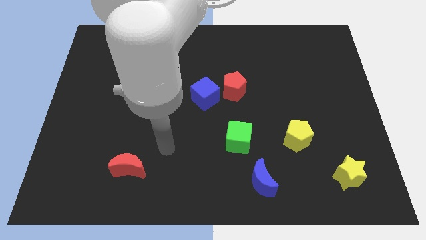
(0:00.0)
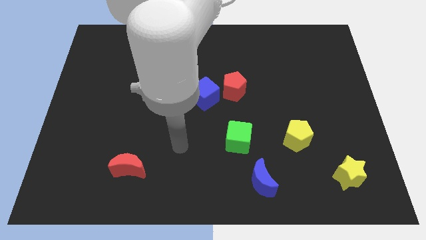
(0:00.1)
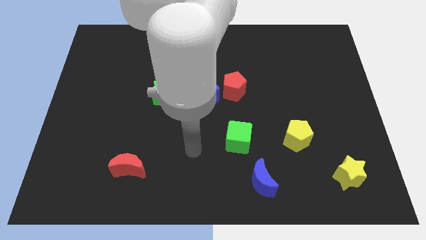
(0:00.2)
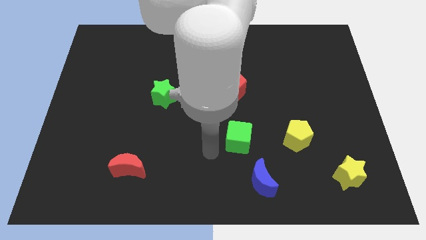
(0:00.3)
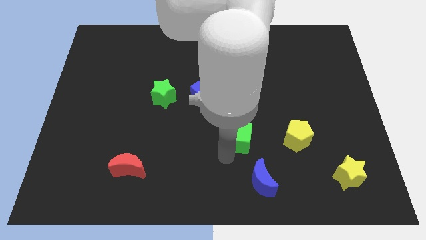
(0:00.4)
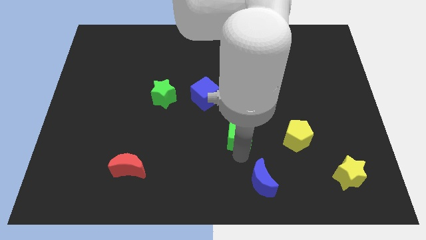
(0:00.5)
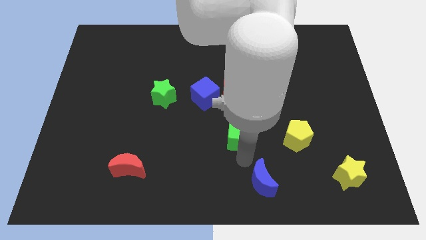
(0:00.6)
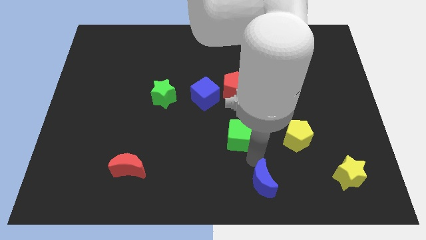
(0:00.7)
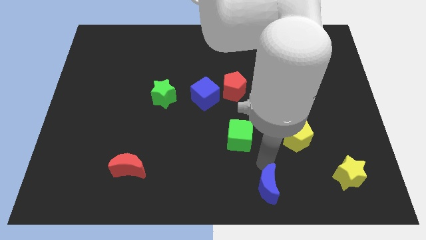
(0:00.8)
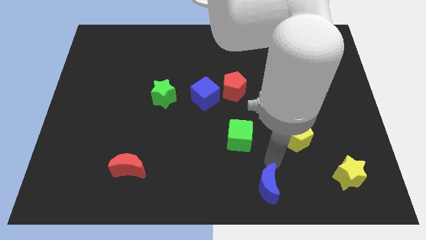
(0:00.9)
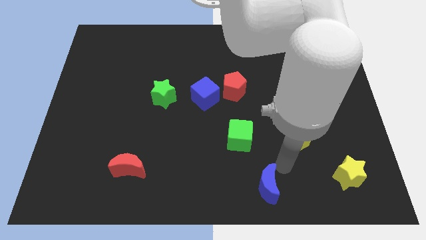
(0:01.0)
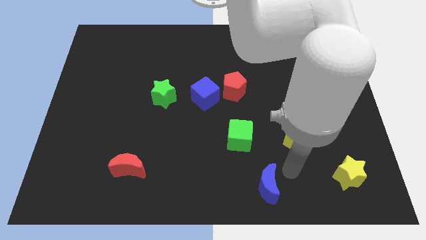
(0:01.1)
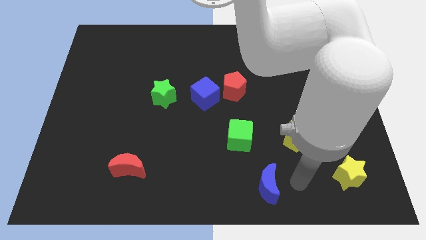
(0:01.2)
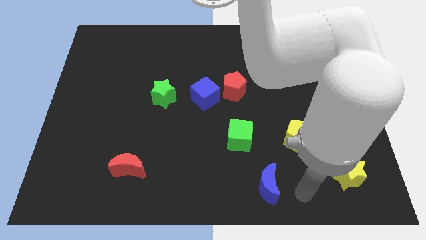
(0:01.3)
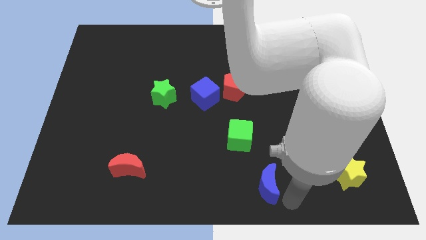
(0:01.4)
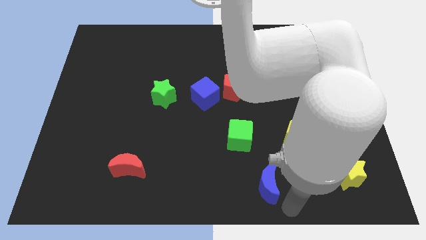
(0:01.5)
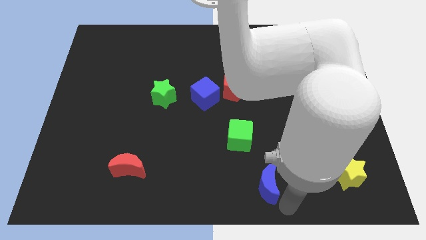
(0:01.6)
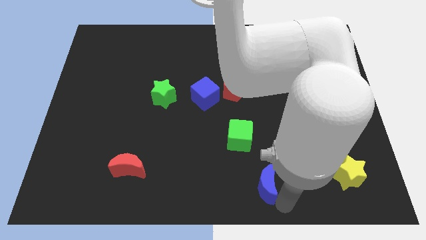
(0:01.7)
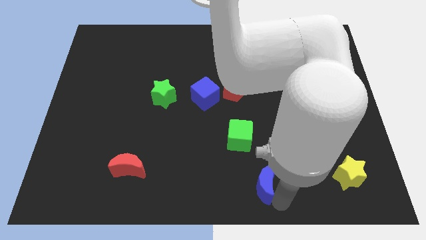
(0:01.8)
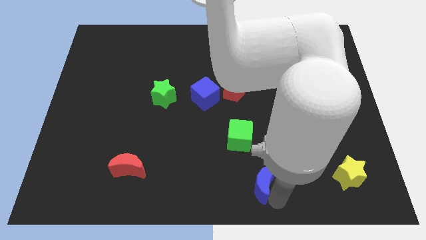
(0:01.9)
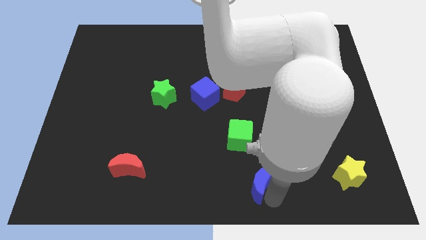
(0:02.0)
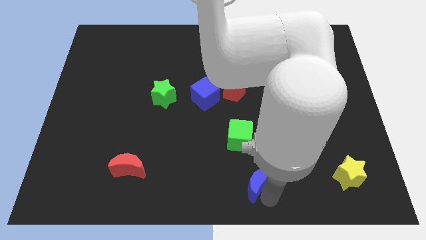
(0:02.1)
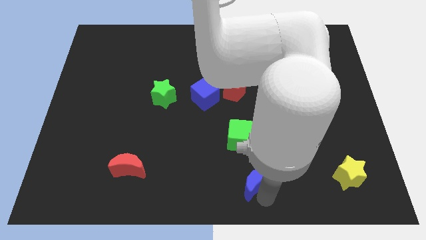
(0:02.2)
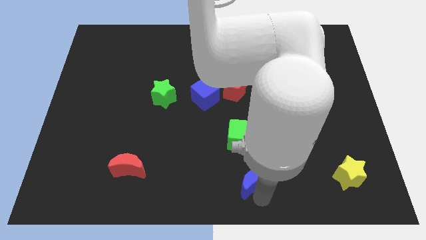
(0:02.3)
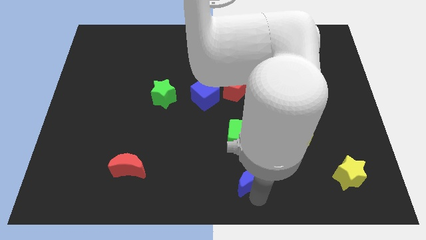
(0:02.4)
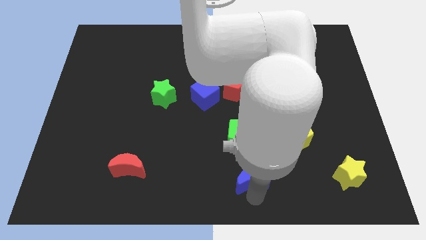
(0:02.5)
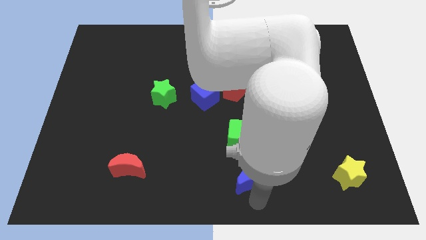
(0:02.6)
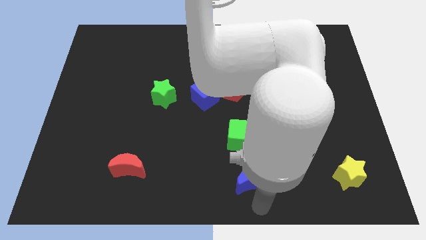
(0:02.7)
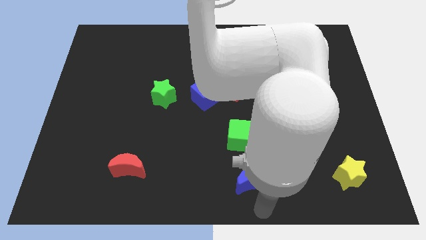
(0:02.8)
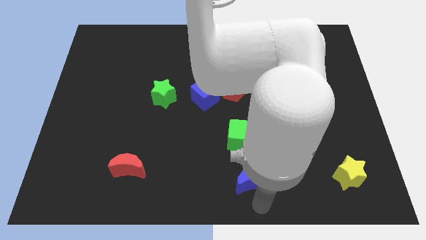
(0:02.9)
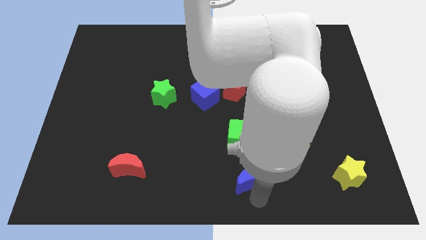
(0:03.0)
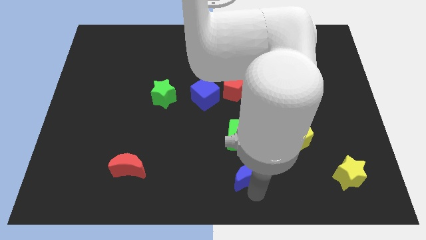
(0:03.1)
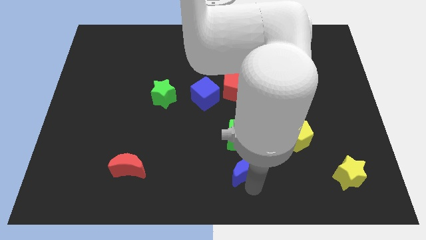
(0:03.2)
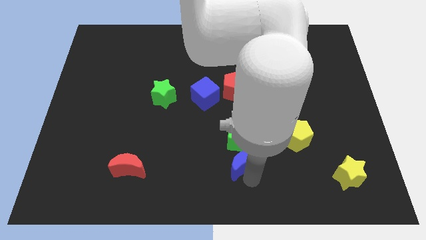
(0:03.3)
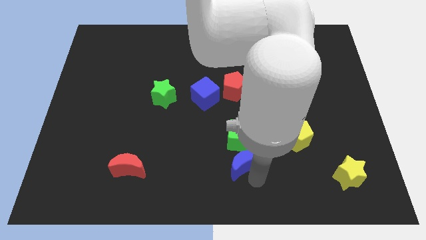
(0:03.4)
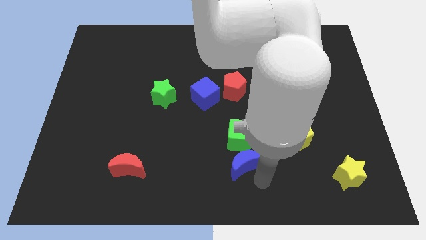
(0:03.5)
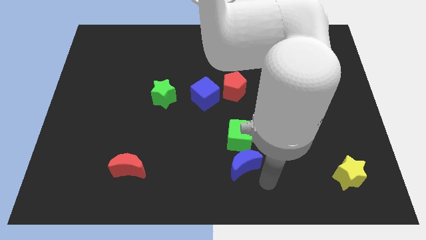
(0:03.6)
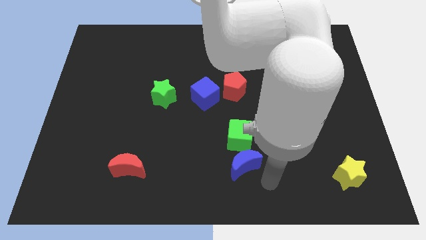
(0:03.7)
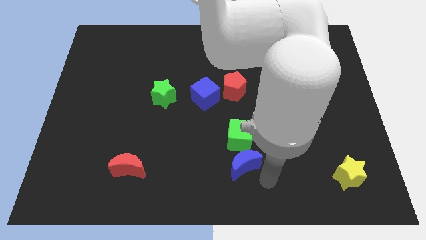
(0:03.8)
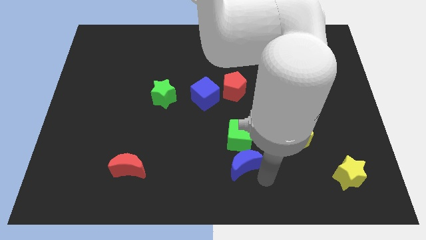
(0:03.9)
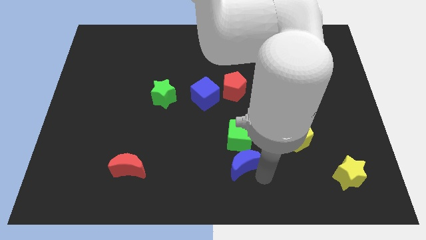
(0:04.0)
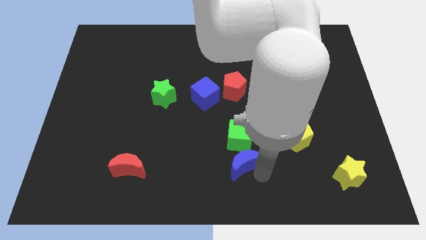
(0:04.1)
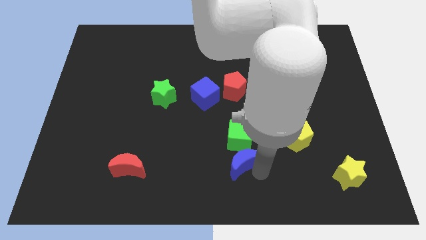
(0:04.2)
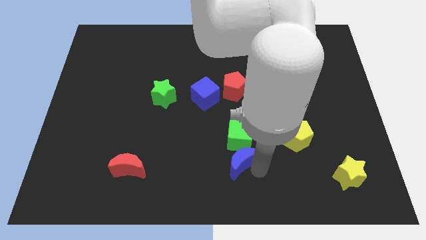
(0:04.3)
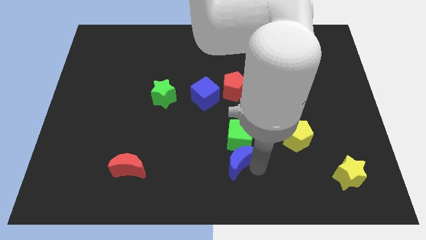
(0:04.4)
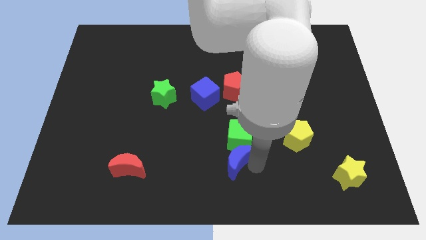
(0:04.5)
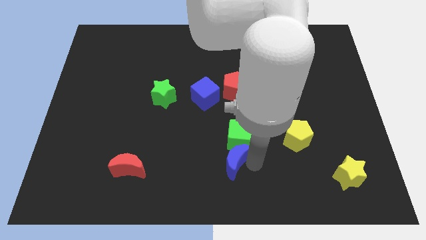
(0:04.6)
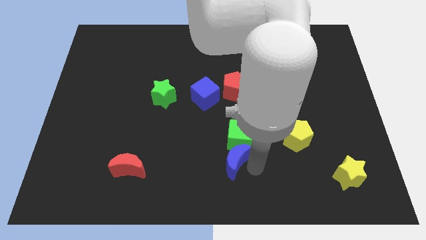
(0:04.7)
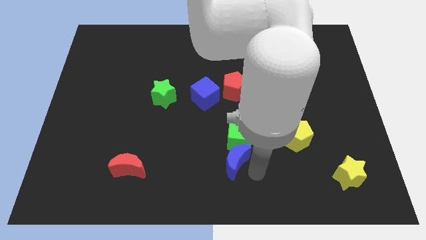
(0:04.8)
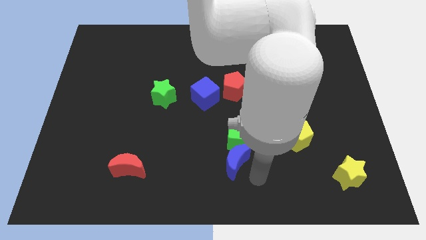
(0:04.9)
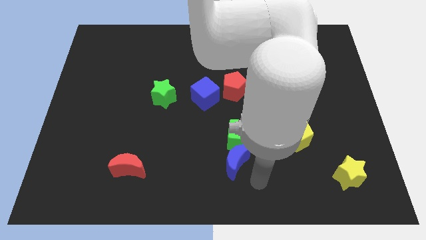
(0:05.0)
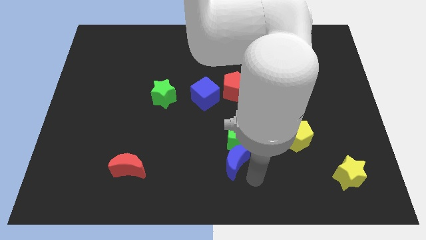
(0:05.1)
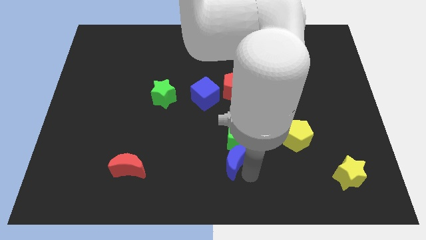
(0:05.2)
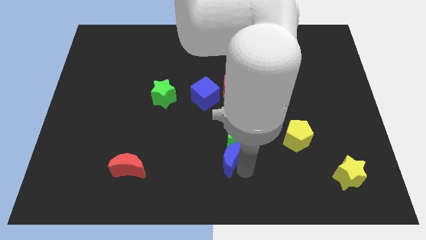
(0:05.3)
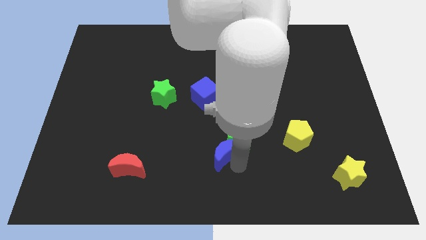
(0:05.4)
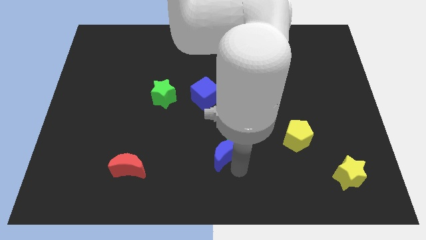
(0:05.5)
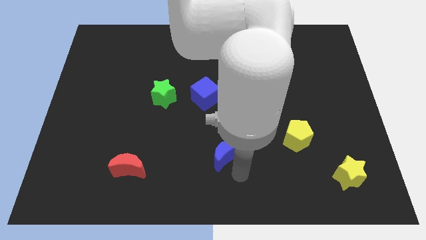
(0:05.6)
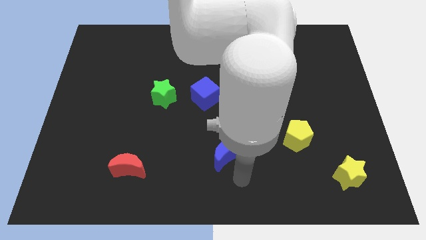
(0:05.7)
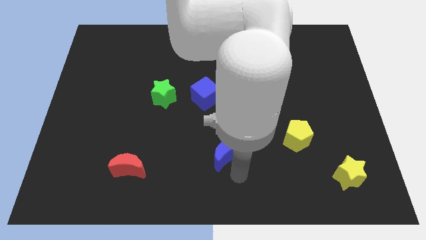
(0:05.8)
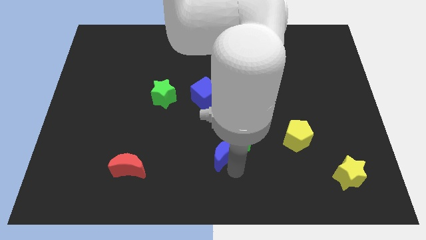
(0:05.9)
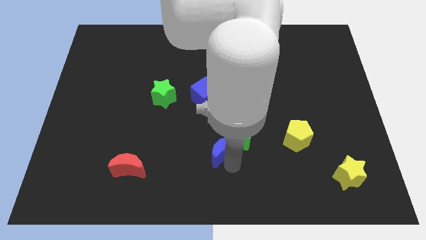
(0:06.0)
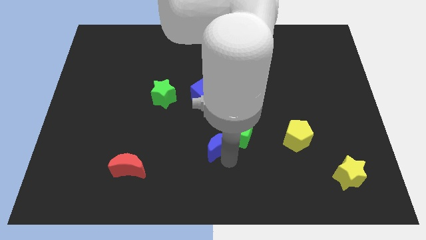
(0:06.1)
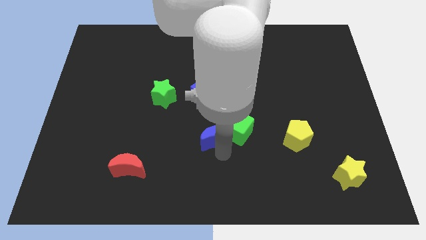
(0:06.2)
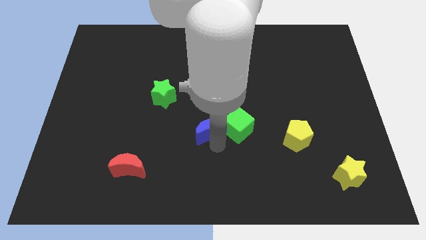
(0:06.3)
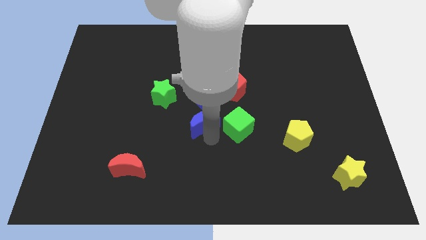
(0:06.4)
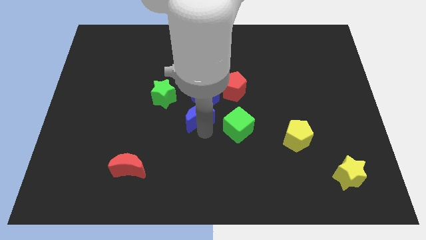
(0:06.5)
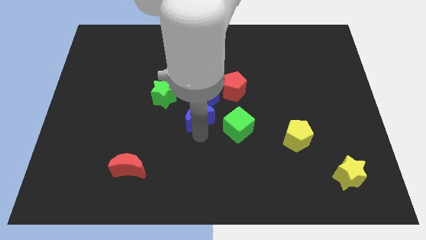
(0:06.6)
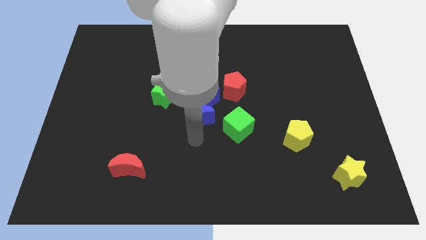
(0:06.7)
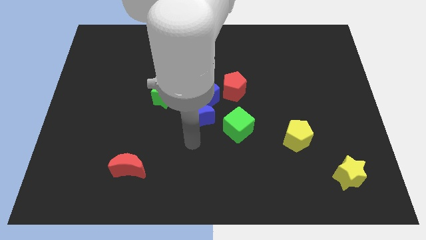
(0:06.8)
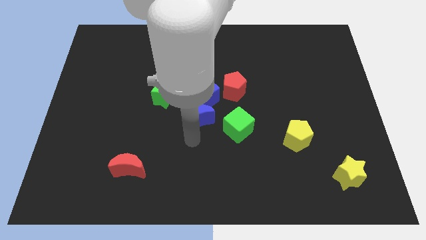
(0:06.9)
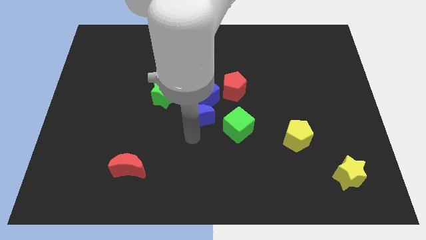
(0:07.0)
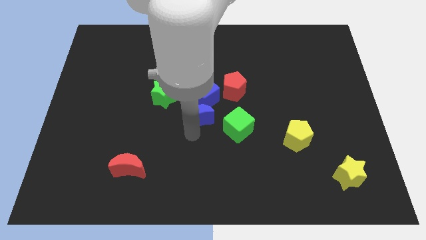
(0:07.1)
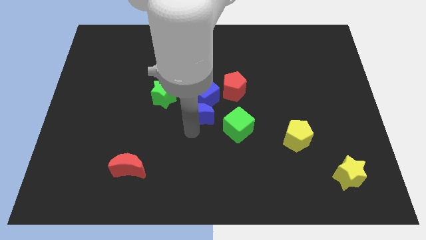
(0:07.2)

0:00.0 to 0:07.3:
put the blue moon towards the blue cube
